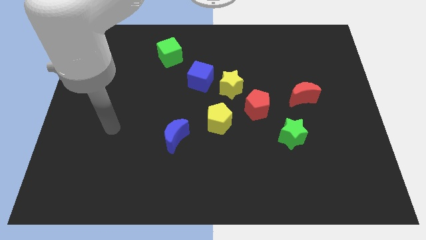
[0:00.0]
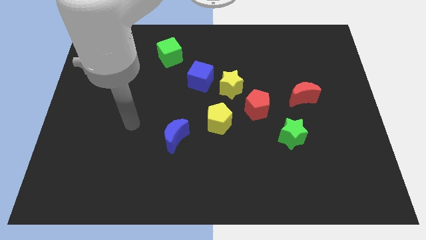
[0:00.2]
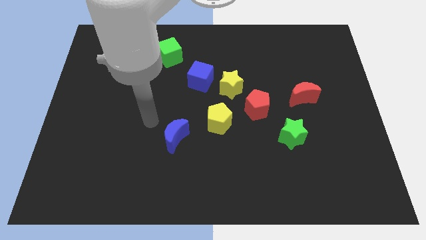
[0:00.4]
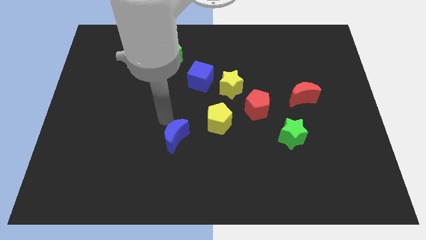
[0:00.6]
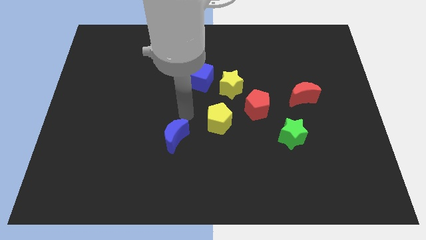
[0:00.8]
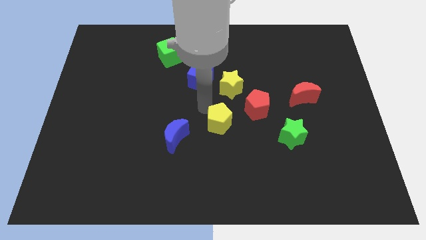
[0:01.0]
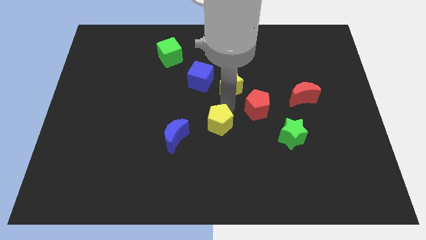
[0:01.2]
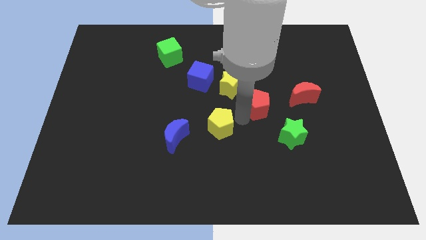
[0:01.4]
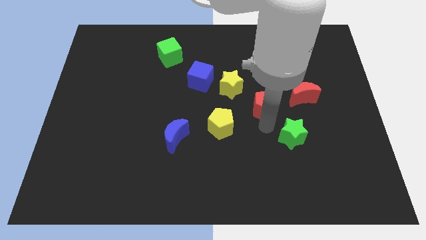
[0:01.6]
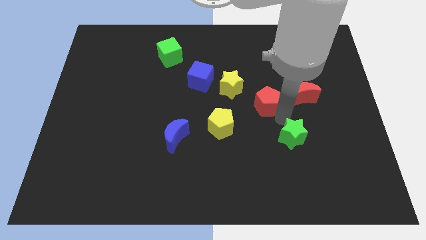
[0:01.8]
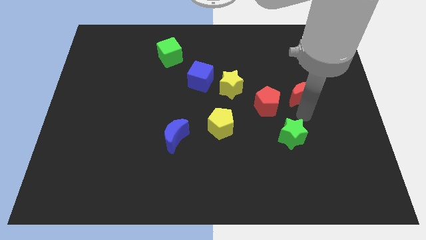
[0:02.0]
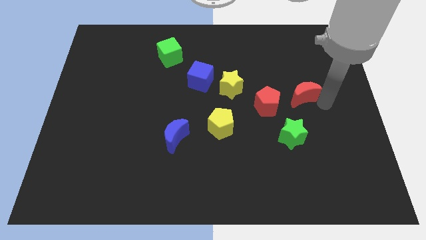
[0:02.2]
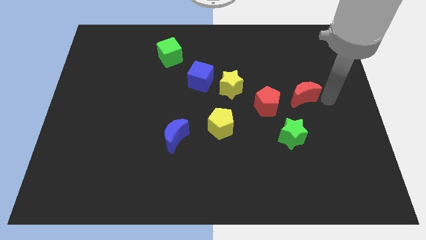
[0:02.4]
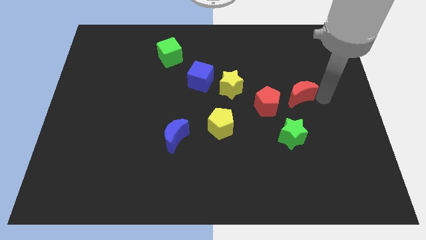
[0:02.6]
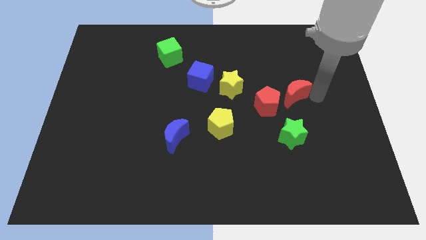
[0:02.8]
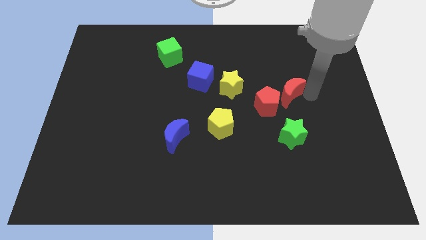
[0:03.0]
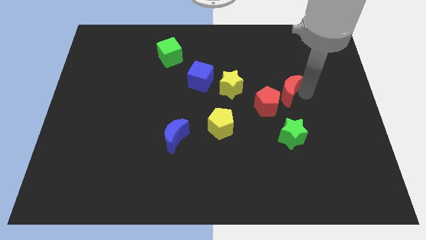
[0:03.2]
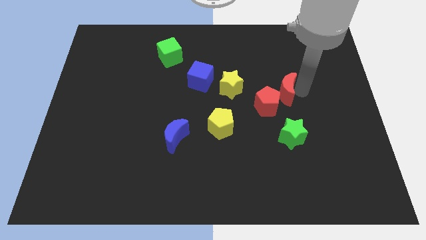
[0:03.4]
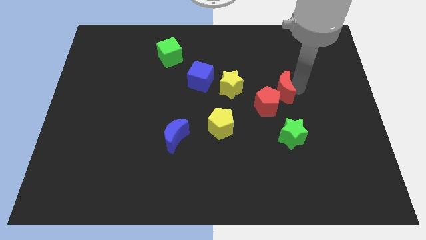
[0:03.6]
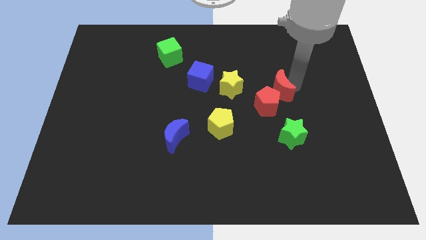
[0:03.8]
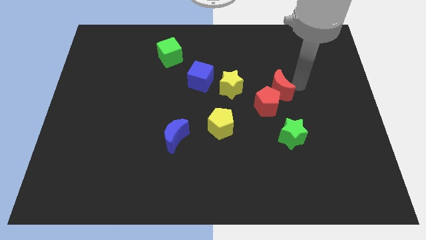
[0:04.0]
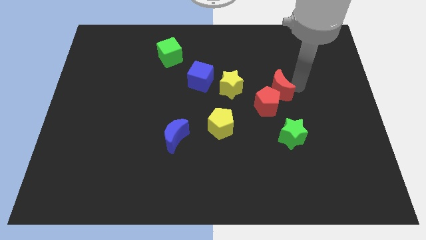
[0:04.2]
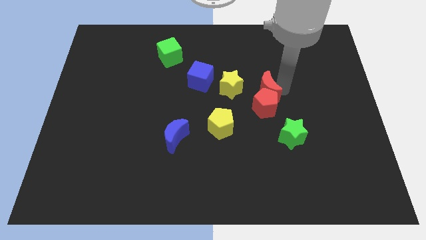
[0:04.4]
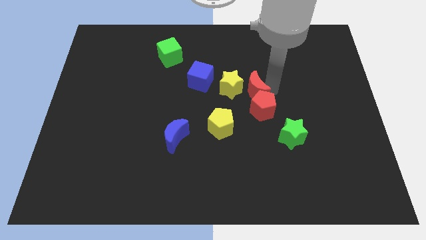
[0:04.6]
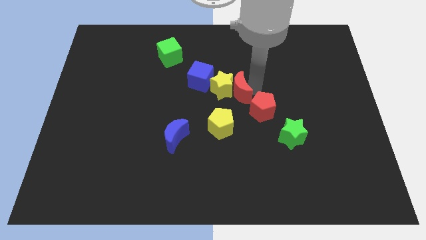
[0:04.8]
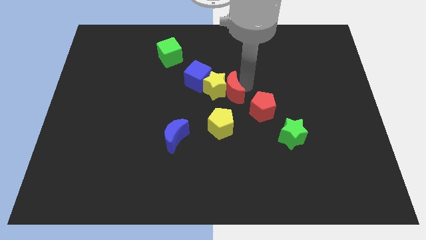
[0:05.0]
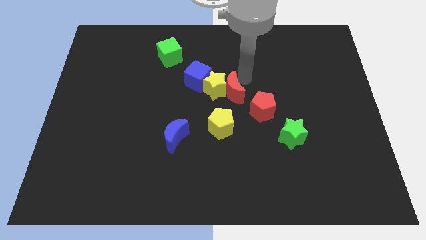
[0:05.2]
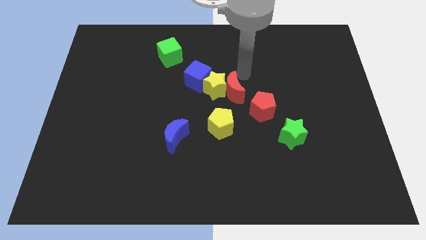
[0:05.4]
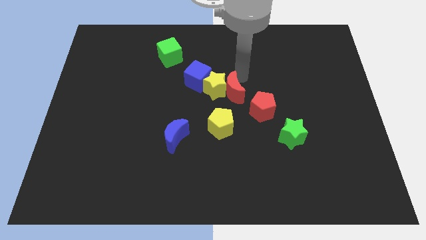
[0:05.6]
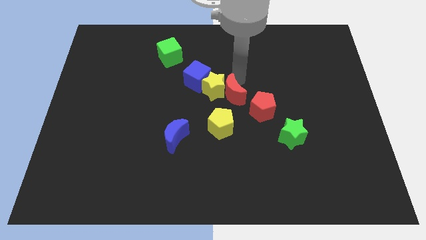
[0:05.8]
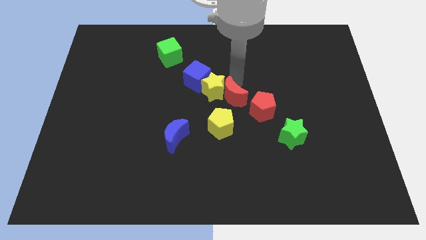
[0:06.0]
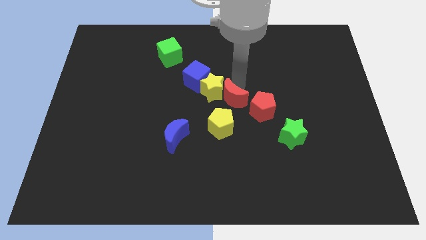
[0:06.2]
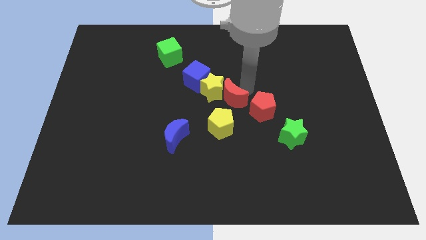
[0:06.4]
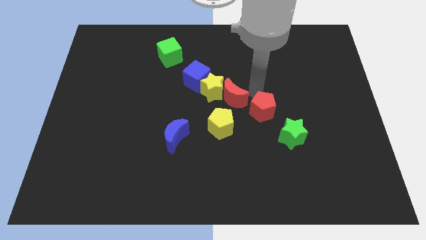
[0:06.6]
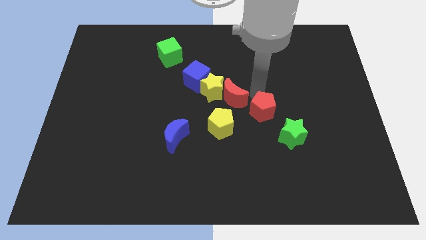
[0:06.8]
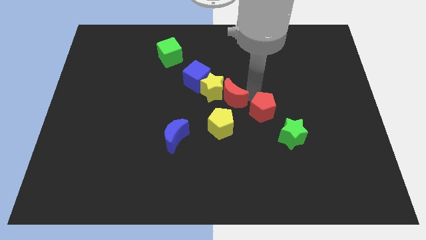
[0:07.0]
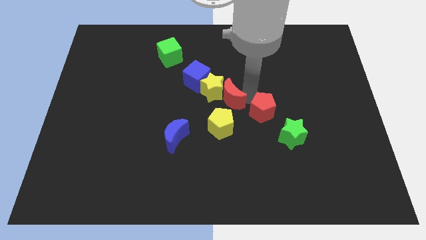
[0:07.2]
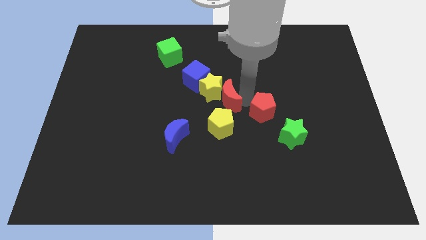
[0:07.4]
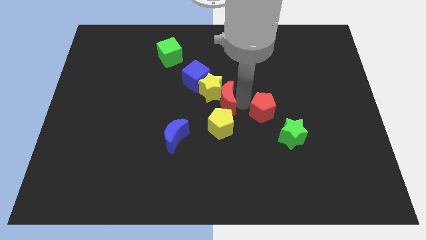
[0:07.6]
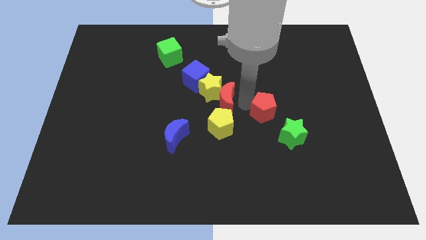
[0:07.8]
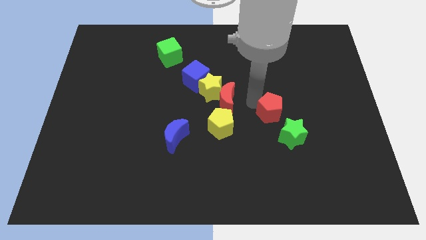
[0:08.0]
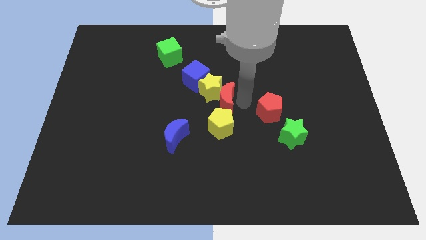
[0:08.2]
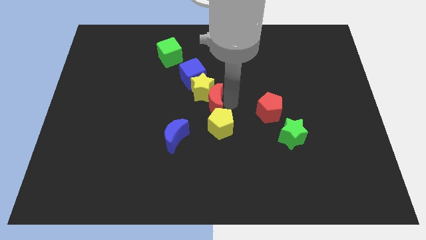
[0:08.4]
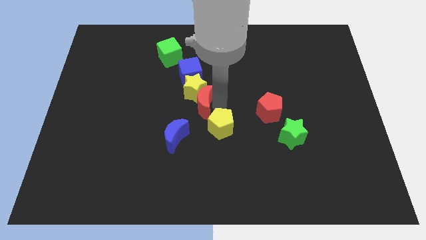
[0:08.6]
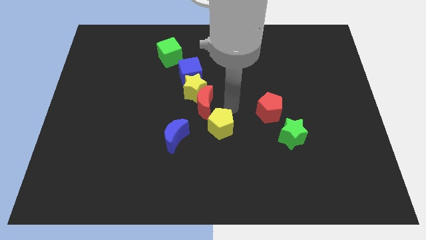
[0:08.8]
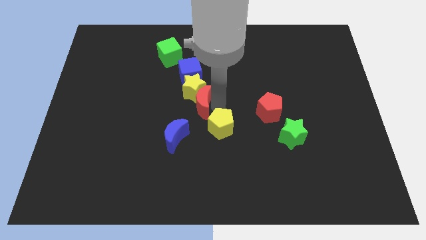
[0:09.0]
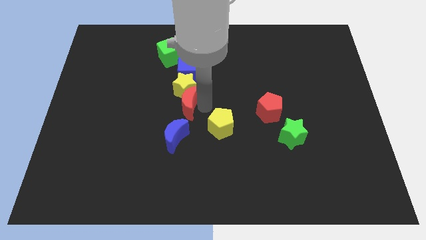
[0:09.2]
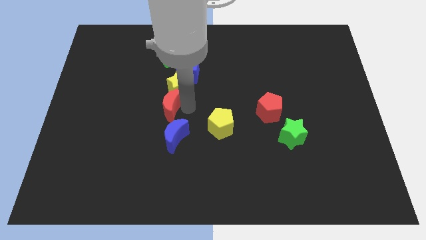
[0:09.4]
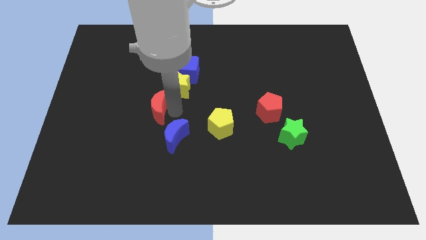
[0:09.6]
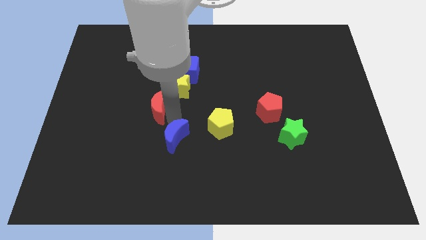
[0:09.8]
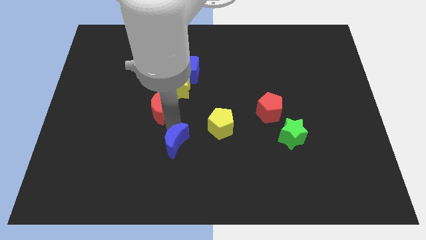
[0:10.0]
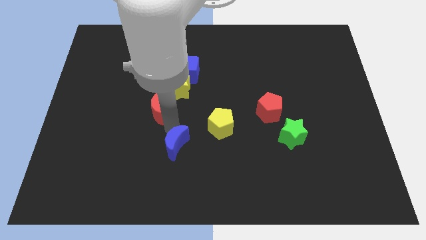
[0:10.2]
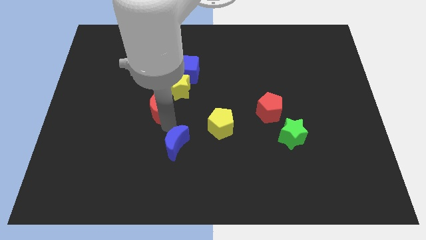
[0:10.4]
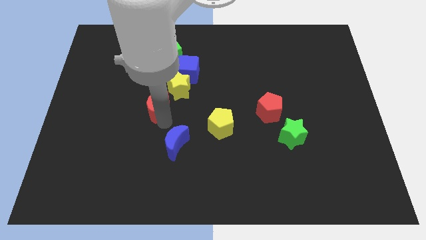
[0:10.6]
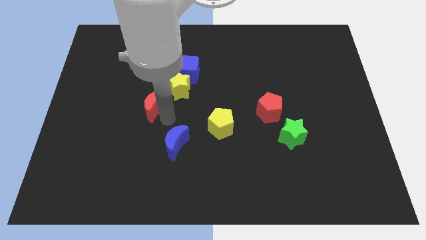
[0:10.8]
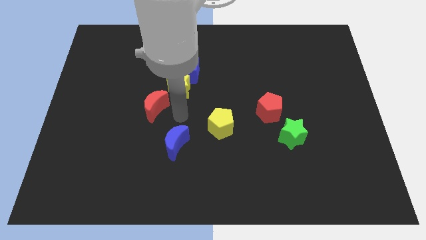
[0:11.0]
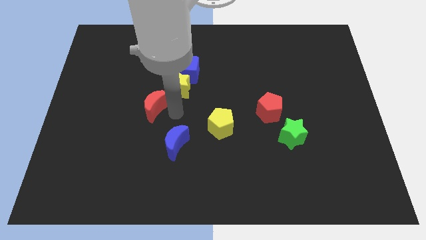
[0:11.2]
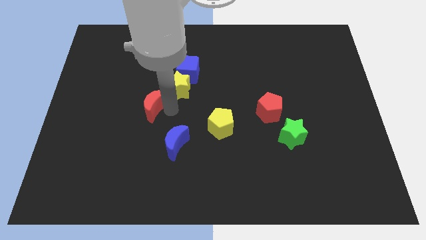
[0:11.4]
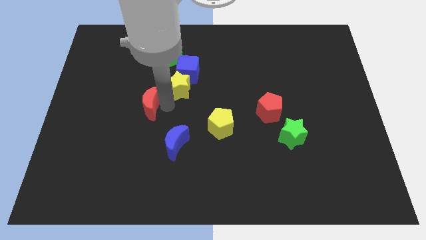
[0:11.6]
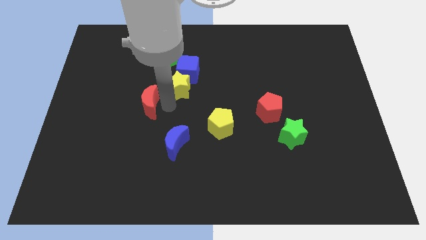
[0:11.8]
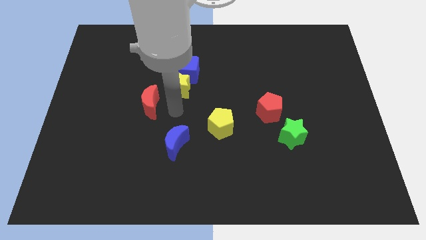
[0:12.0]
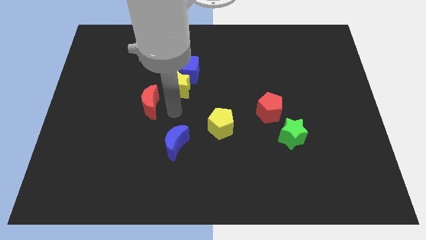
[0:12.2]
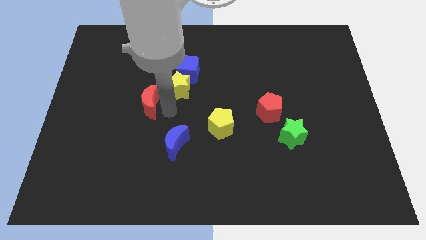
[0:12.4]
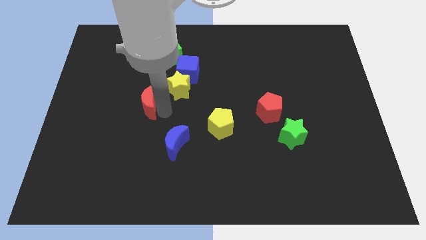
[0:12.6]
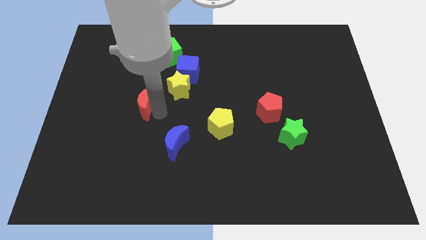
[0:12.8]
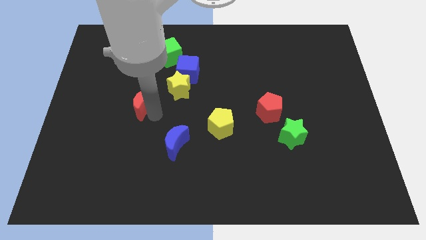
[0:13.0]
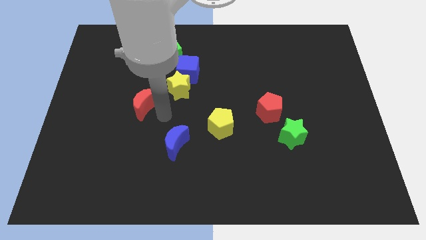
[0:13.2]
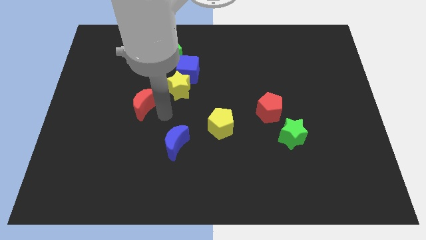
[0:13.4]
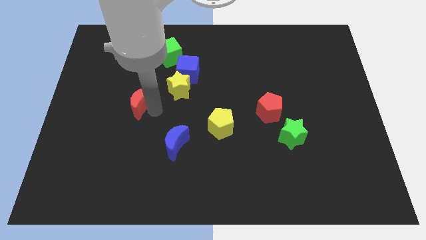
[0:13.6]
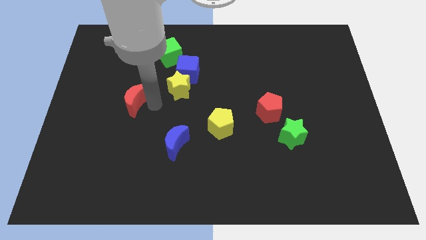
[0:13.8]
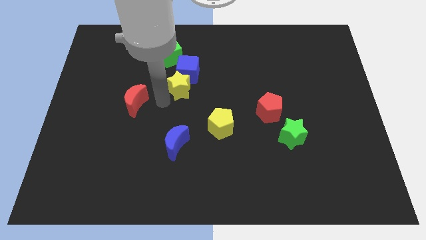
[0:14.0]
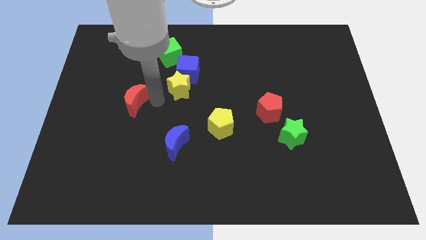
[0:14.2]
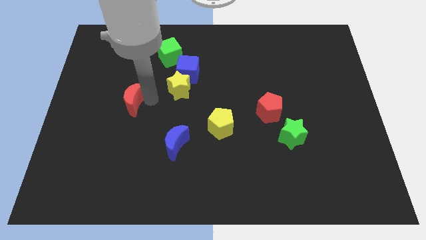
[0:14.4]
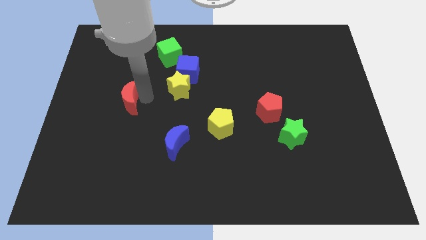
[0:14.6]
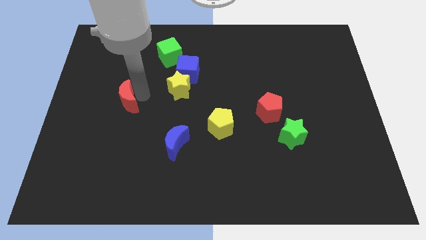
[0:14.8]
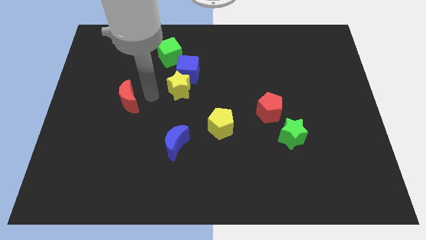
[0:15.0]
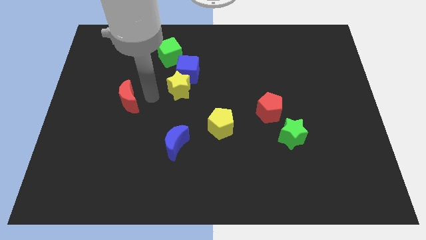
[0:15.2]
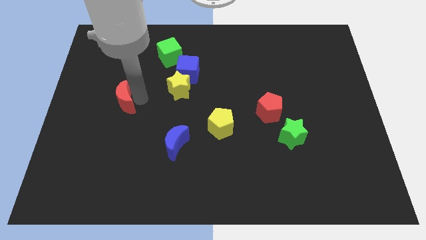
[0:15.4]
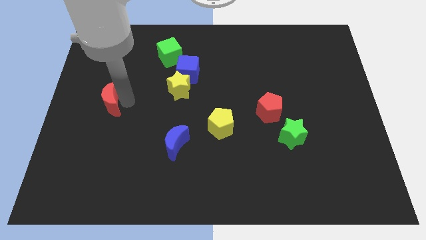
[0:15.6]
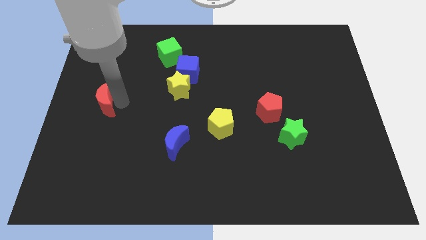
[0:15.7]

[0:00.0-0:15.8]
slide the red moon to the center left

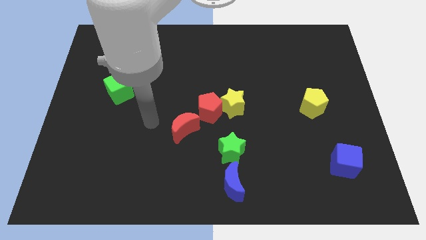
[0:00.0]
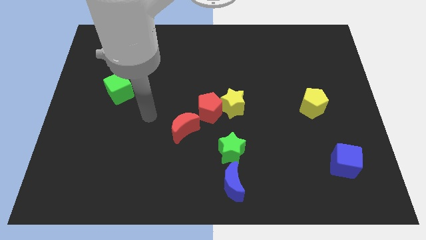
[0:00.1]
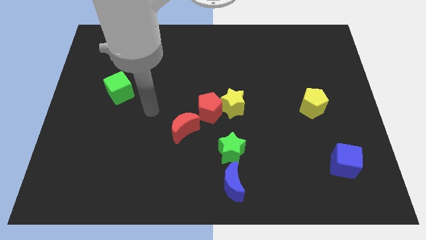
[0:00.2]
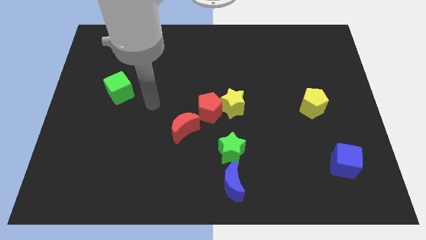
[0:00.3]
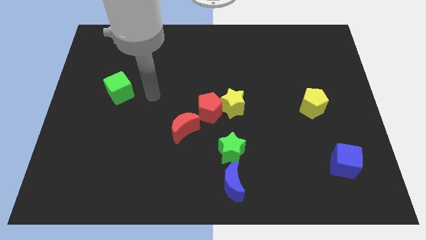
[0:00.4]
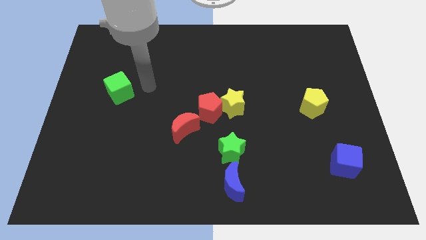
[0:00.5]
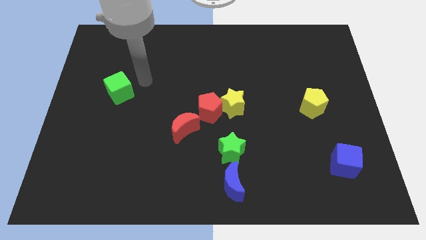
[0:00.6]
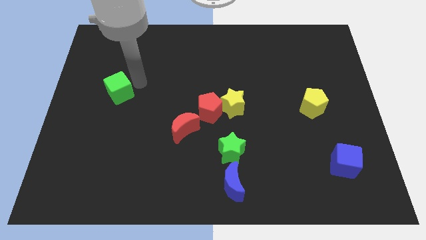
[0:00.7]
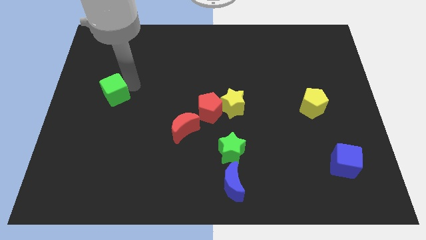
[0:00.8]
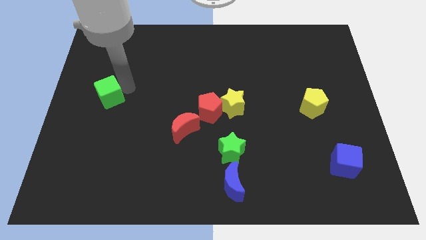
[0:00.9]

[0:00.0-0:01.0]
push the green cube to the center left
